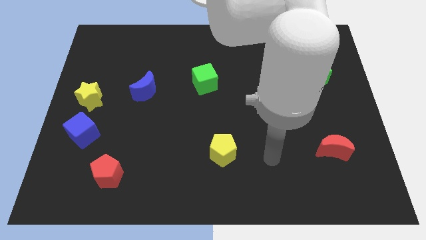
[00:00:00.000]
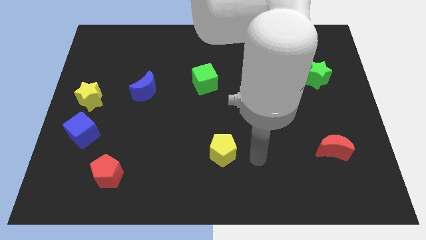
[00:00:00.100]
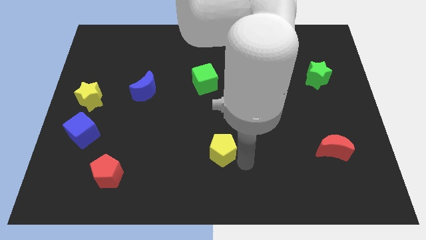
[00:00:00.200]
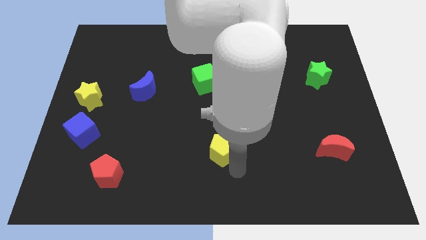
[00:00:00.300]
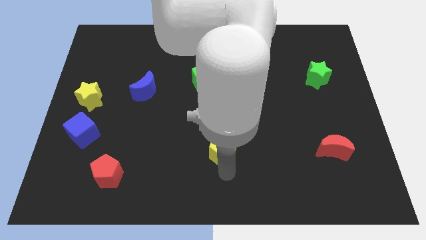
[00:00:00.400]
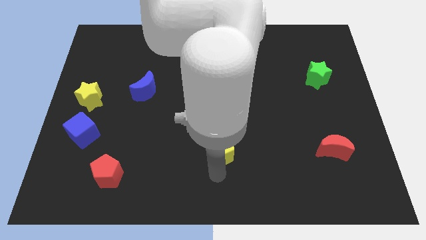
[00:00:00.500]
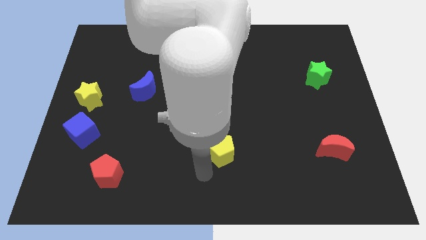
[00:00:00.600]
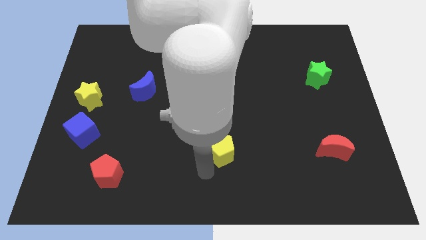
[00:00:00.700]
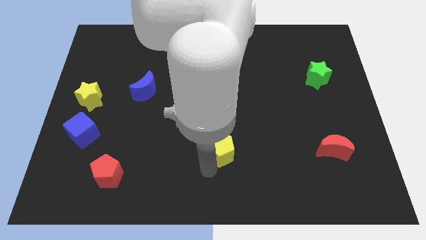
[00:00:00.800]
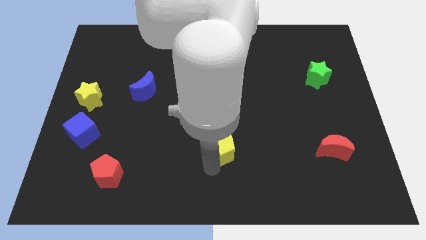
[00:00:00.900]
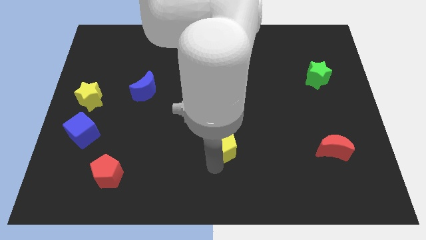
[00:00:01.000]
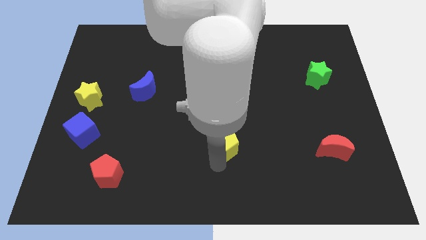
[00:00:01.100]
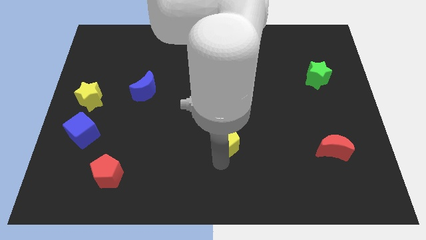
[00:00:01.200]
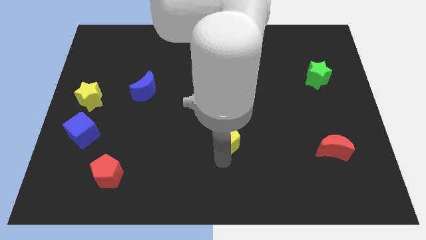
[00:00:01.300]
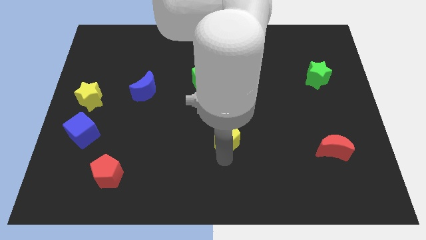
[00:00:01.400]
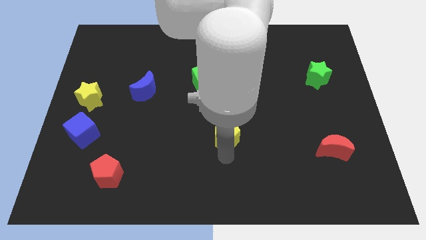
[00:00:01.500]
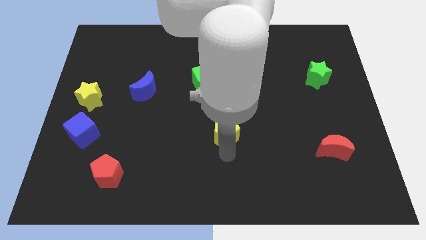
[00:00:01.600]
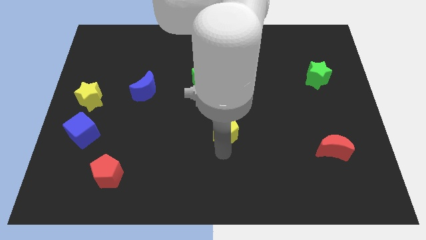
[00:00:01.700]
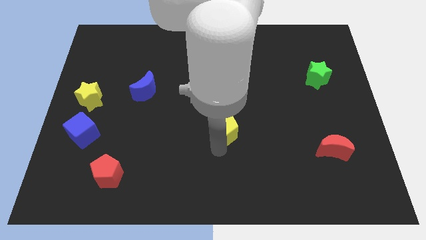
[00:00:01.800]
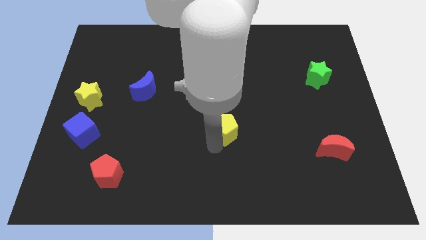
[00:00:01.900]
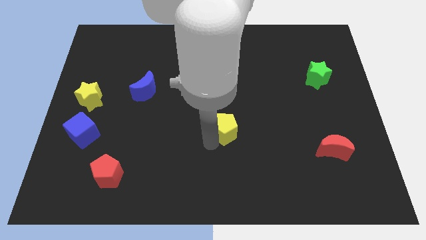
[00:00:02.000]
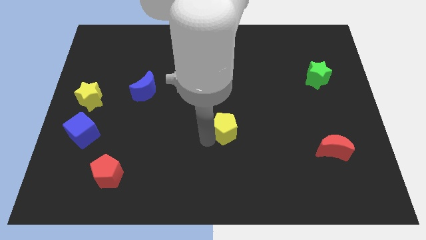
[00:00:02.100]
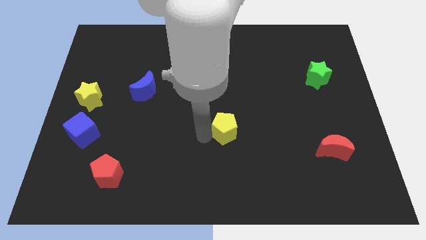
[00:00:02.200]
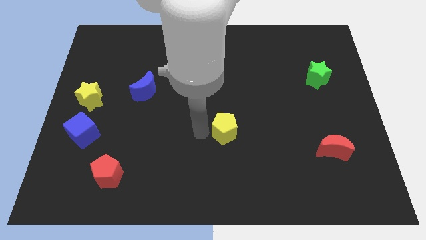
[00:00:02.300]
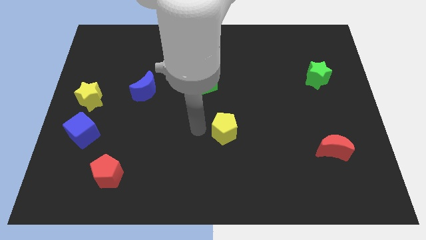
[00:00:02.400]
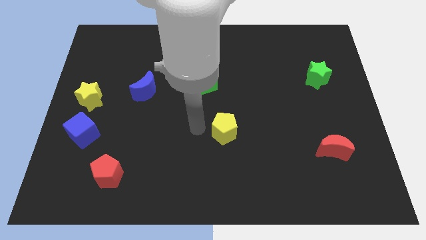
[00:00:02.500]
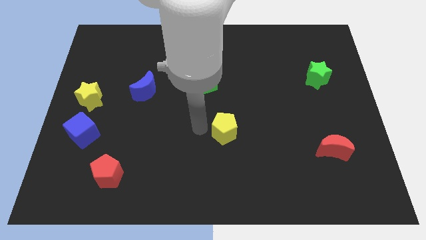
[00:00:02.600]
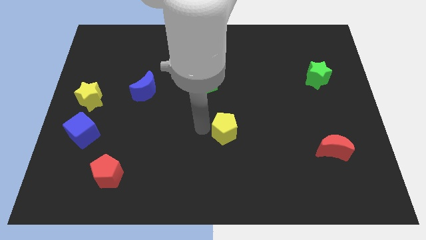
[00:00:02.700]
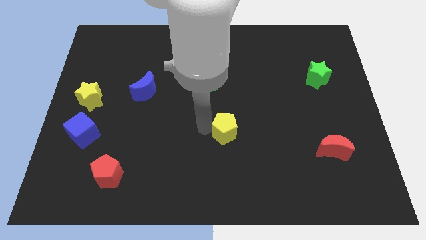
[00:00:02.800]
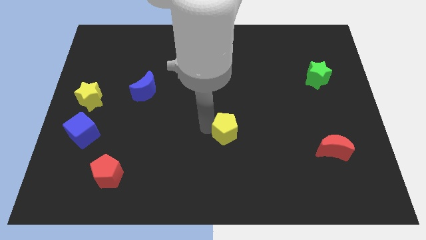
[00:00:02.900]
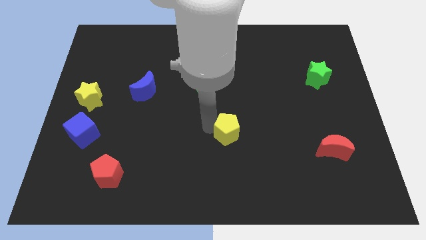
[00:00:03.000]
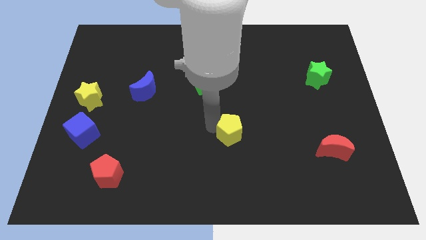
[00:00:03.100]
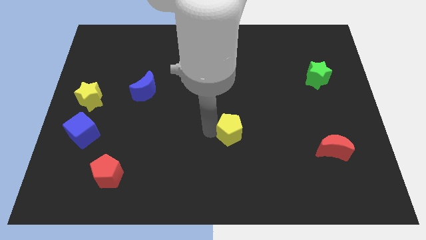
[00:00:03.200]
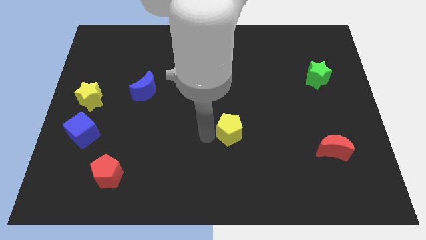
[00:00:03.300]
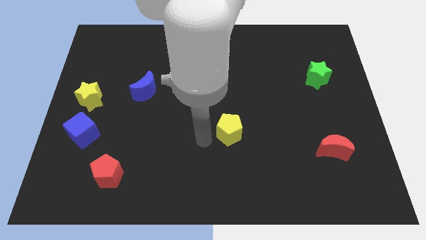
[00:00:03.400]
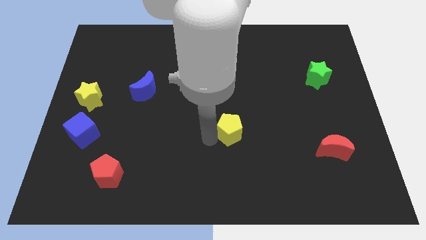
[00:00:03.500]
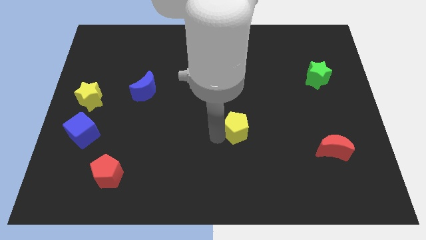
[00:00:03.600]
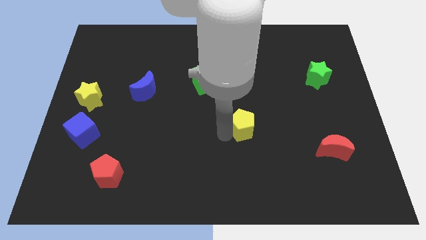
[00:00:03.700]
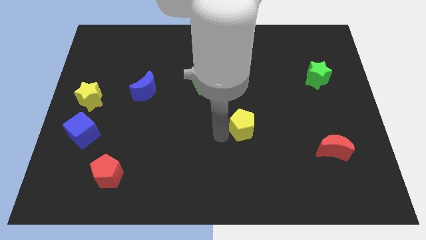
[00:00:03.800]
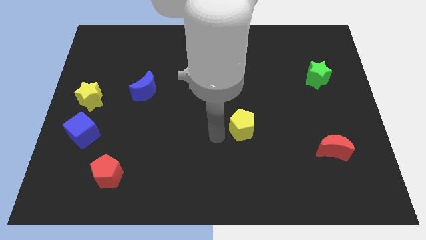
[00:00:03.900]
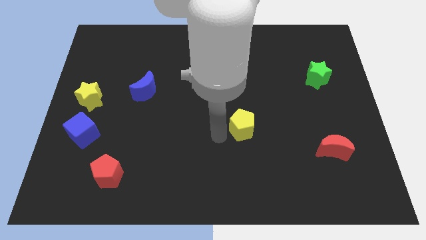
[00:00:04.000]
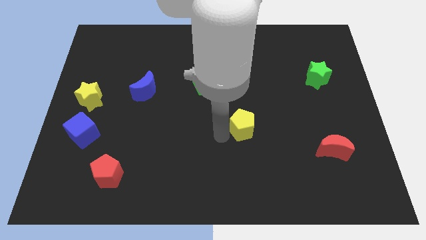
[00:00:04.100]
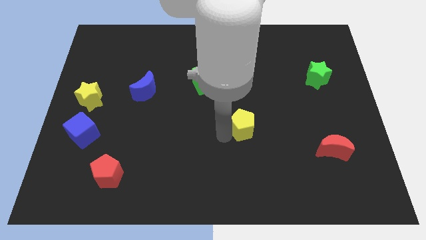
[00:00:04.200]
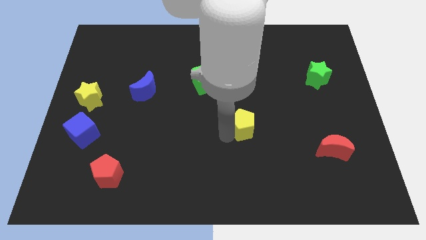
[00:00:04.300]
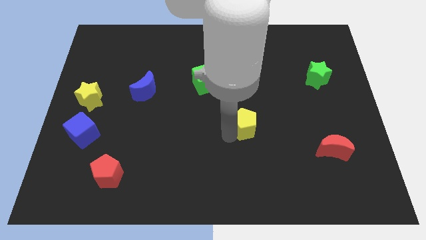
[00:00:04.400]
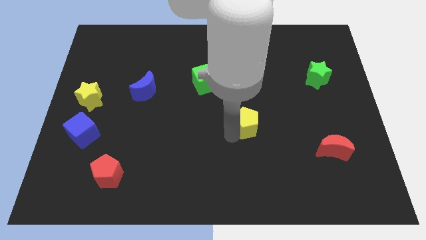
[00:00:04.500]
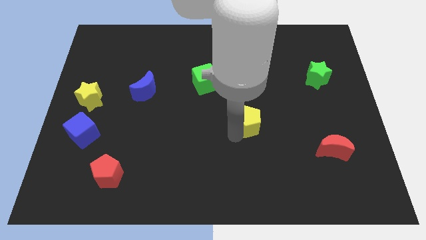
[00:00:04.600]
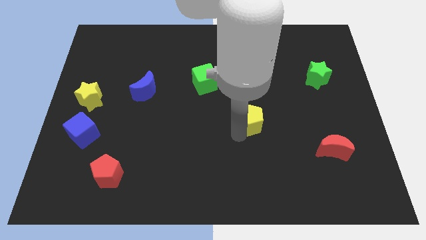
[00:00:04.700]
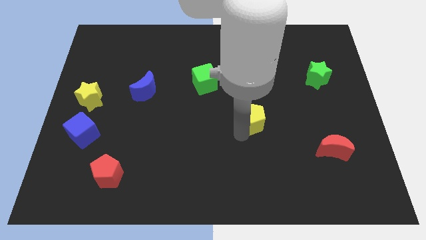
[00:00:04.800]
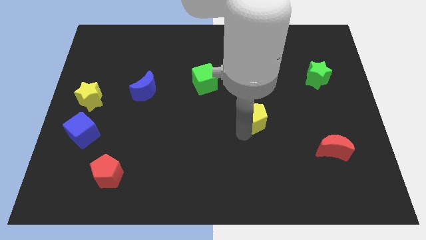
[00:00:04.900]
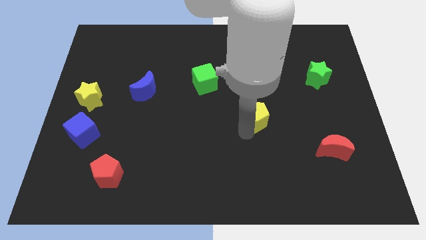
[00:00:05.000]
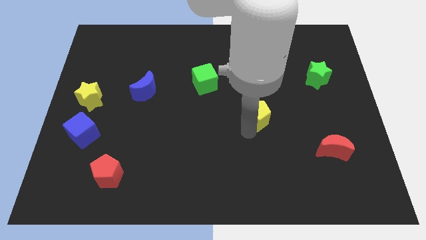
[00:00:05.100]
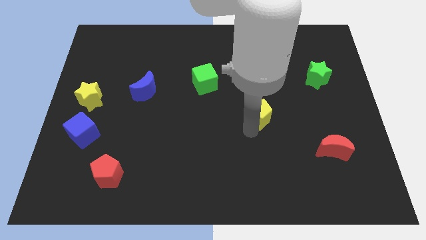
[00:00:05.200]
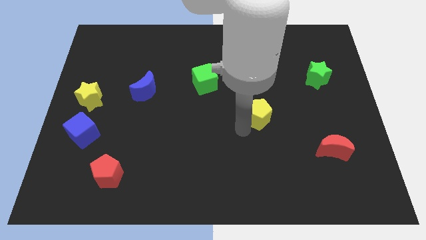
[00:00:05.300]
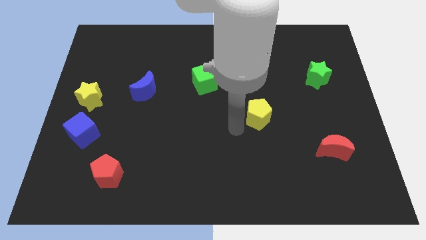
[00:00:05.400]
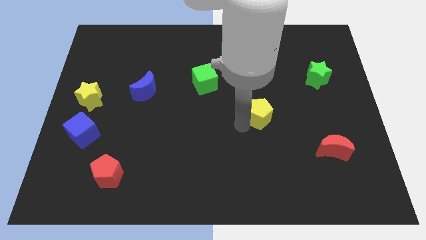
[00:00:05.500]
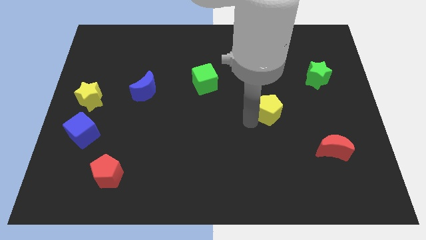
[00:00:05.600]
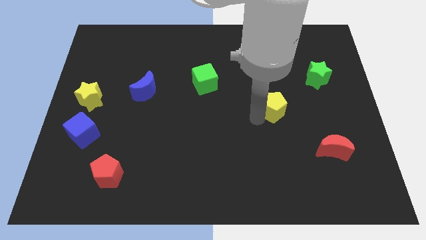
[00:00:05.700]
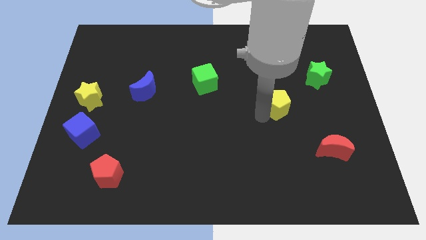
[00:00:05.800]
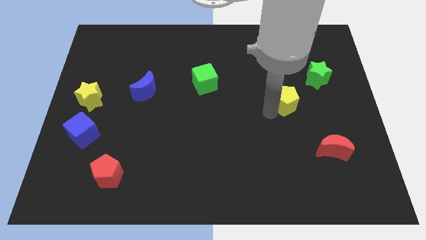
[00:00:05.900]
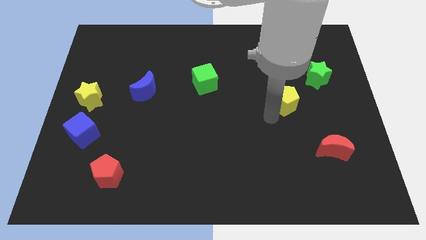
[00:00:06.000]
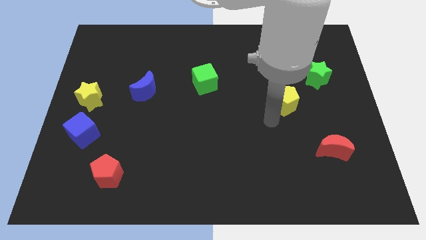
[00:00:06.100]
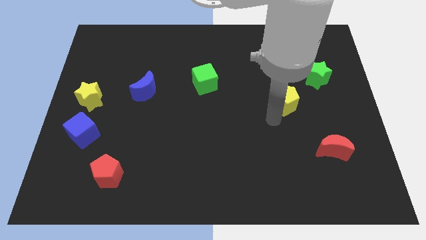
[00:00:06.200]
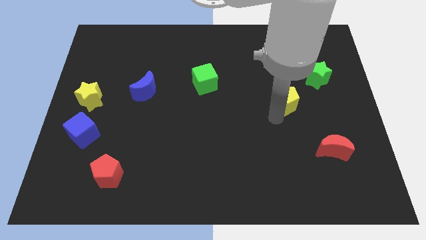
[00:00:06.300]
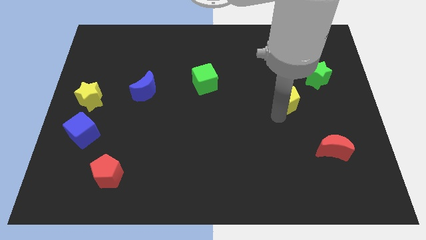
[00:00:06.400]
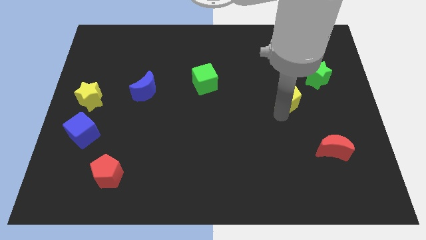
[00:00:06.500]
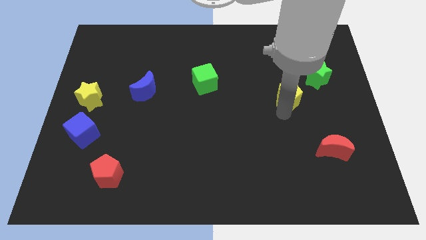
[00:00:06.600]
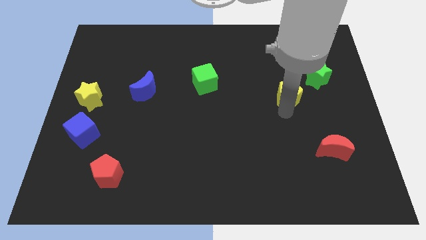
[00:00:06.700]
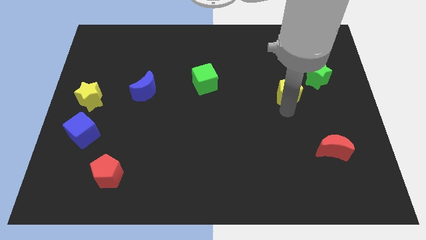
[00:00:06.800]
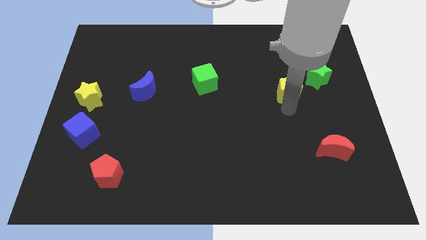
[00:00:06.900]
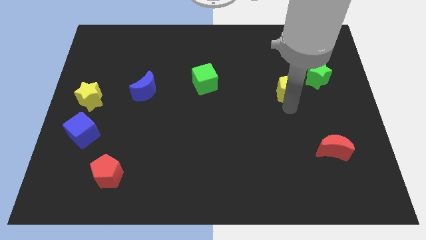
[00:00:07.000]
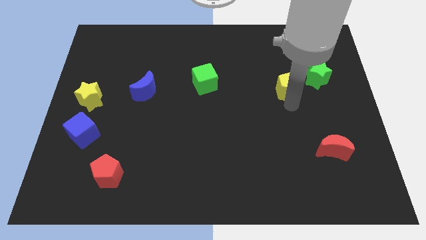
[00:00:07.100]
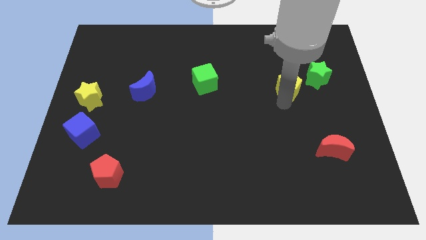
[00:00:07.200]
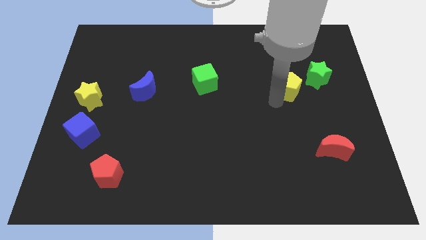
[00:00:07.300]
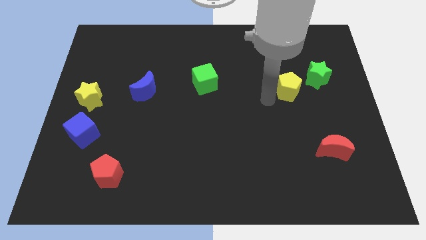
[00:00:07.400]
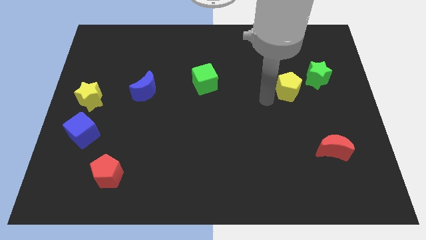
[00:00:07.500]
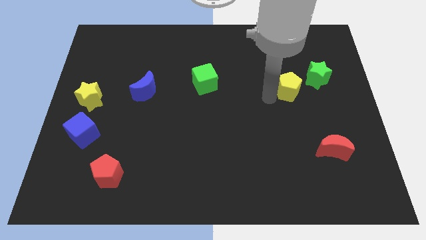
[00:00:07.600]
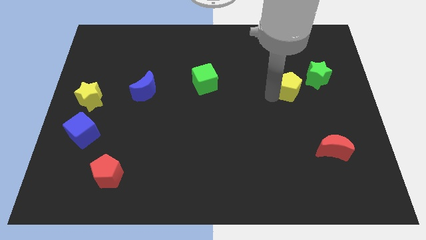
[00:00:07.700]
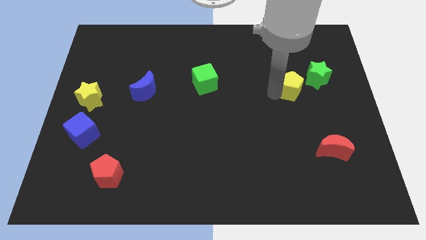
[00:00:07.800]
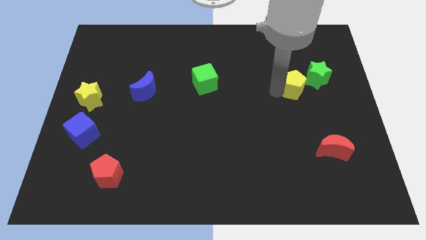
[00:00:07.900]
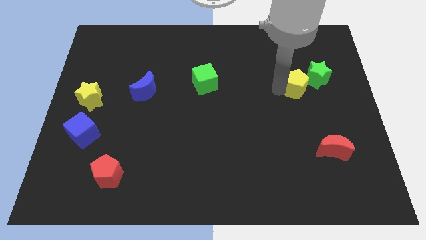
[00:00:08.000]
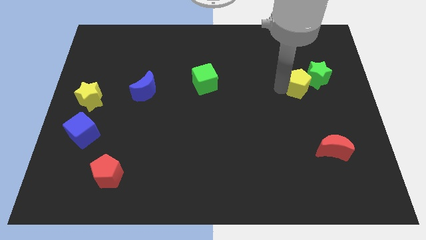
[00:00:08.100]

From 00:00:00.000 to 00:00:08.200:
put the yellow pentagon towards the green star
